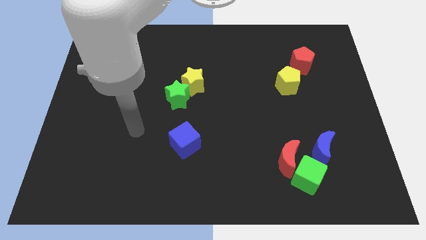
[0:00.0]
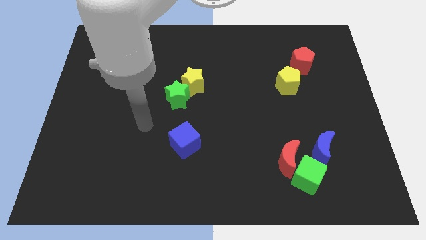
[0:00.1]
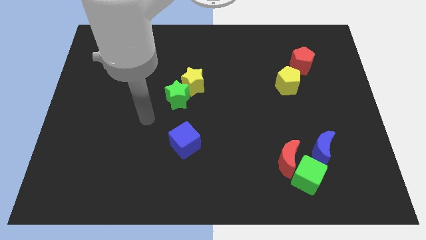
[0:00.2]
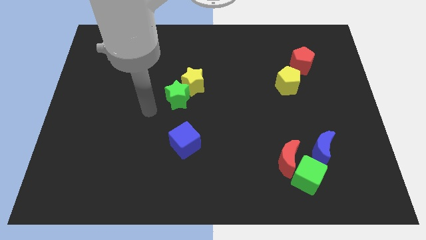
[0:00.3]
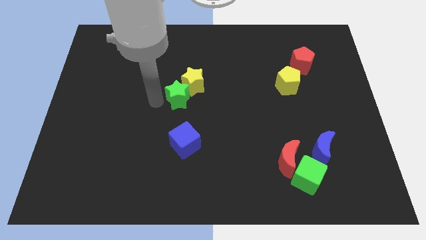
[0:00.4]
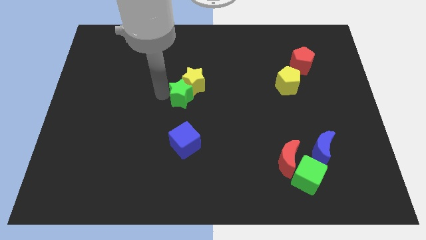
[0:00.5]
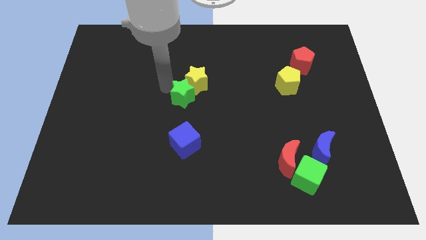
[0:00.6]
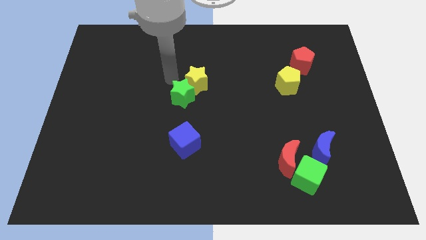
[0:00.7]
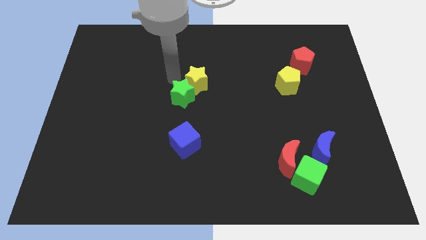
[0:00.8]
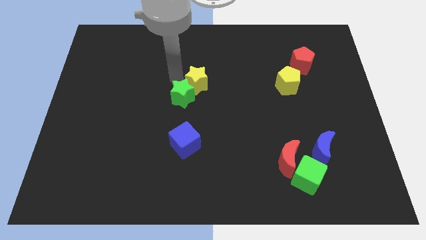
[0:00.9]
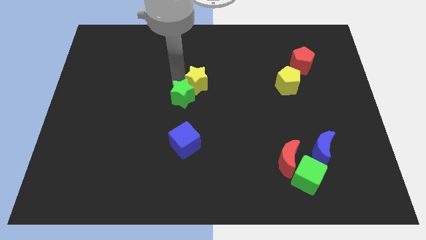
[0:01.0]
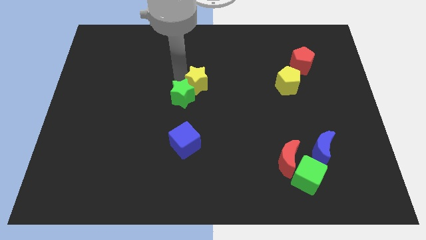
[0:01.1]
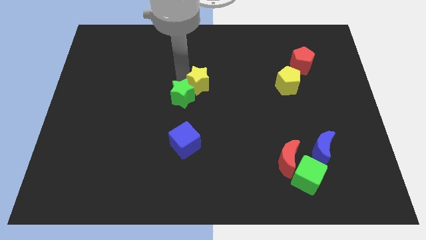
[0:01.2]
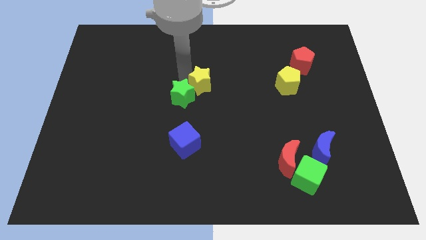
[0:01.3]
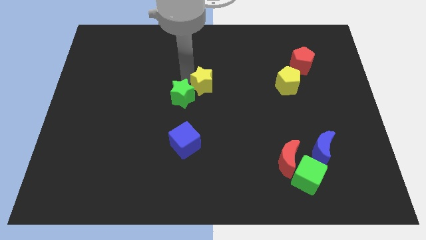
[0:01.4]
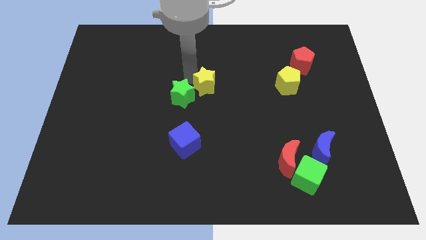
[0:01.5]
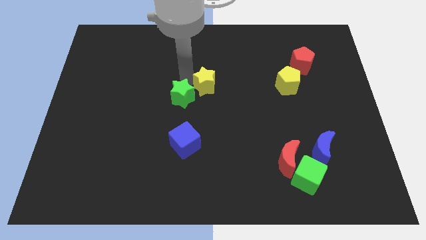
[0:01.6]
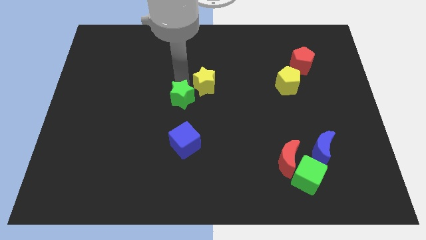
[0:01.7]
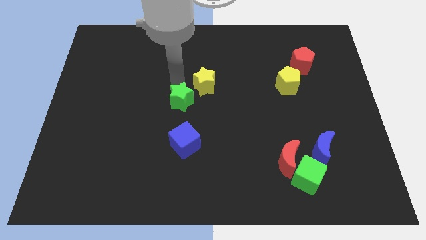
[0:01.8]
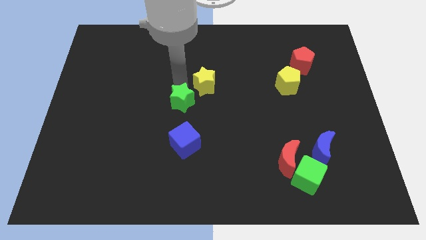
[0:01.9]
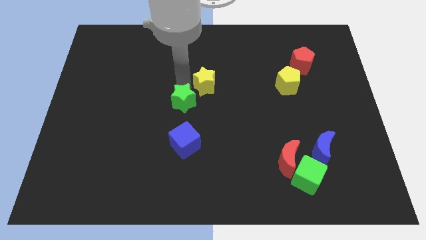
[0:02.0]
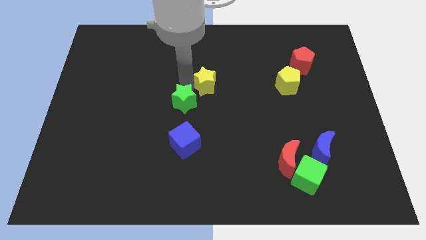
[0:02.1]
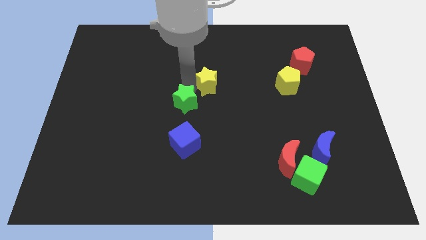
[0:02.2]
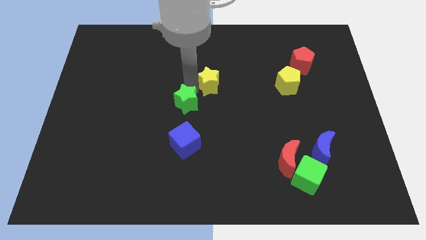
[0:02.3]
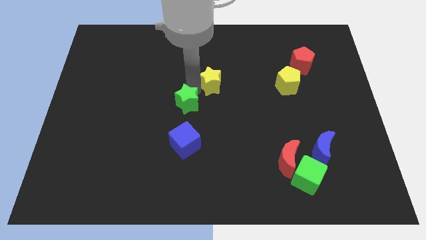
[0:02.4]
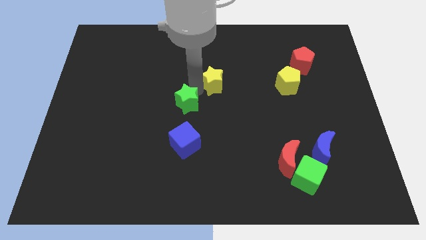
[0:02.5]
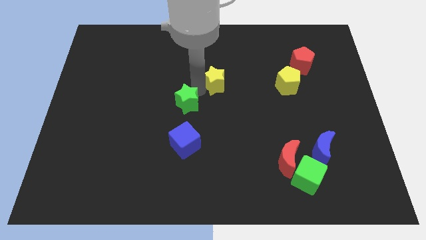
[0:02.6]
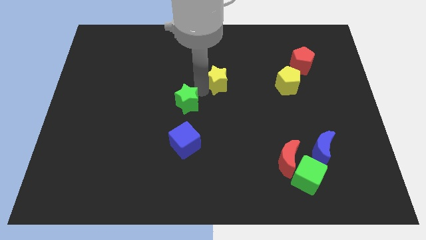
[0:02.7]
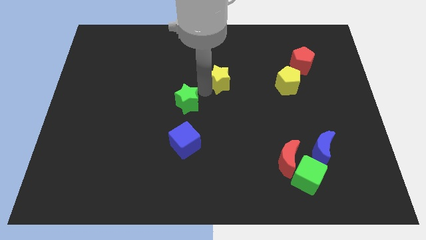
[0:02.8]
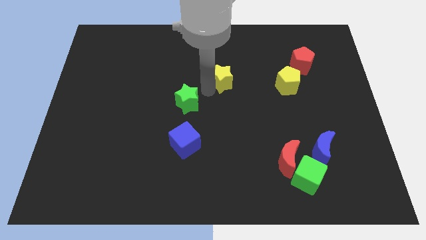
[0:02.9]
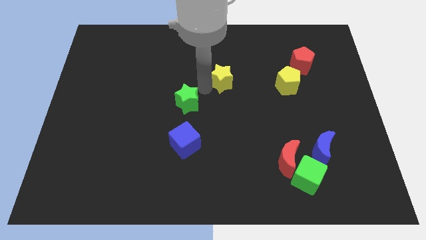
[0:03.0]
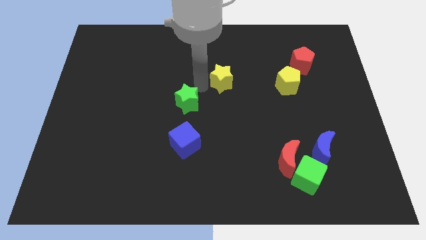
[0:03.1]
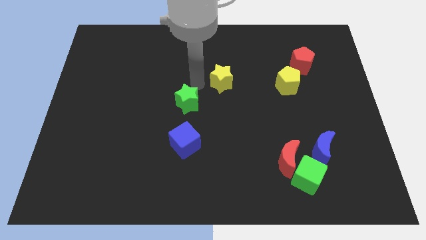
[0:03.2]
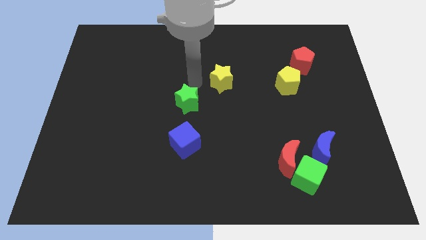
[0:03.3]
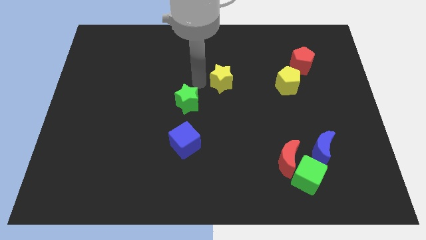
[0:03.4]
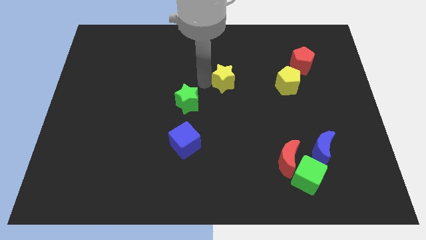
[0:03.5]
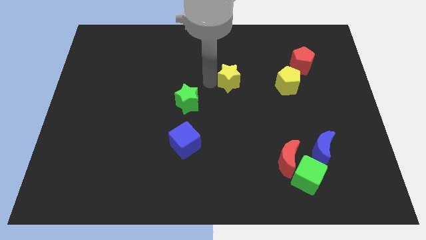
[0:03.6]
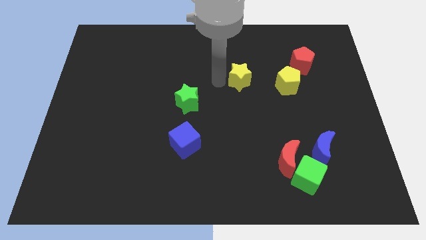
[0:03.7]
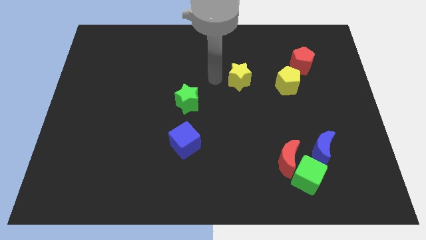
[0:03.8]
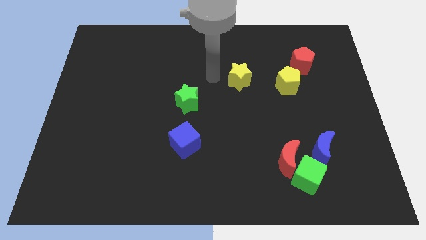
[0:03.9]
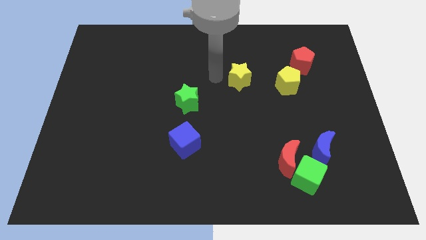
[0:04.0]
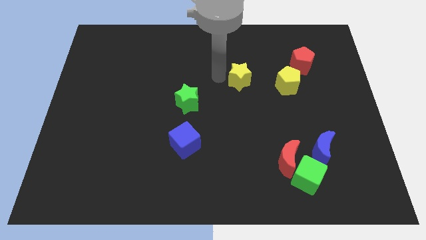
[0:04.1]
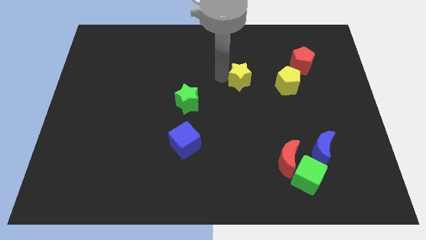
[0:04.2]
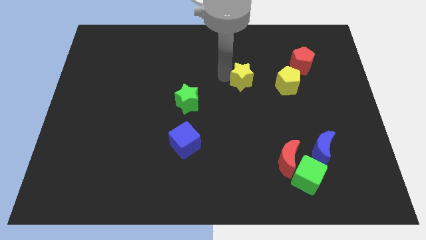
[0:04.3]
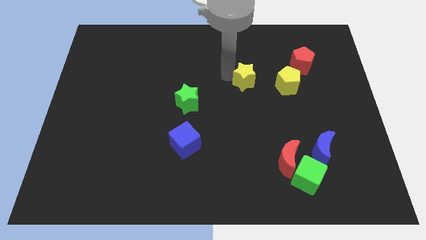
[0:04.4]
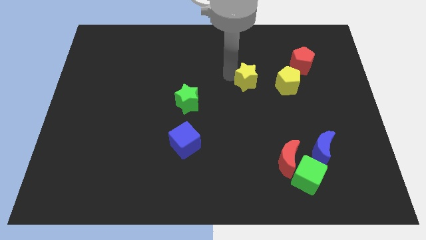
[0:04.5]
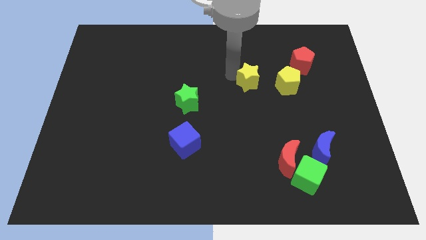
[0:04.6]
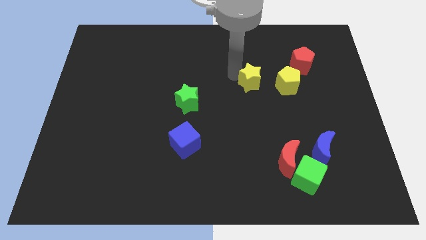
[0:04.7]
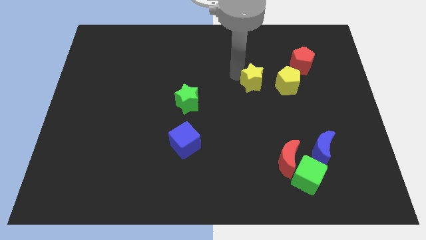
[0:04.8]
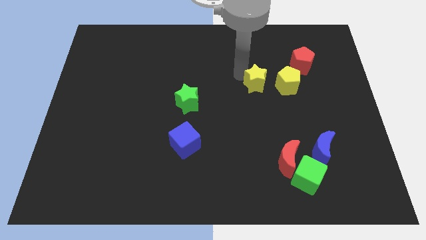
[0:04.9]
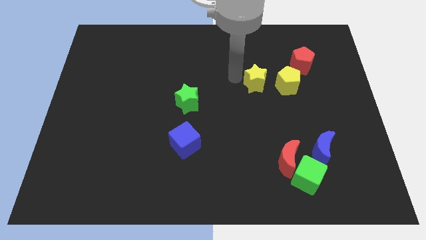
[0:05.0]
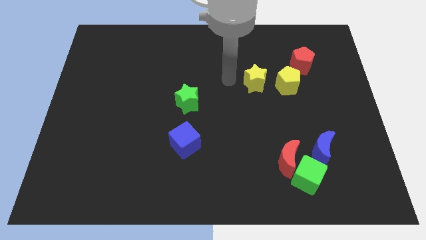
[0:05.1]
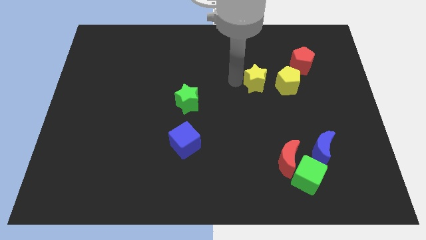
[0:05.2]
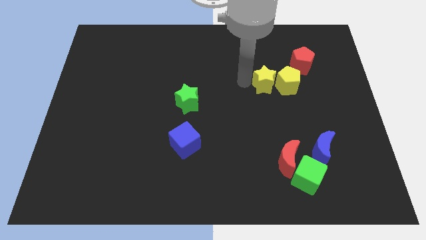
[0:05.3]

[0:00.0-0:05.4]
push the yellow star to the yellow pentagon

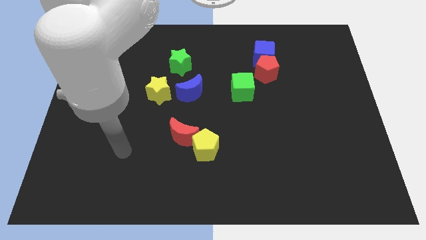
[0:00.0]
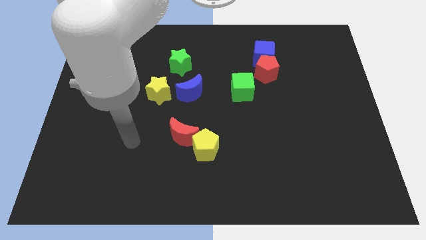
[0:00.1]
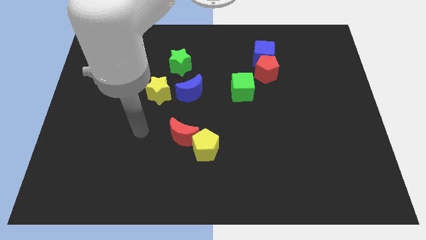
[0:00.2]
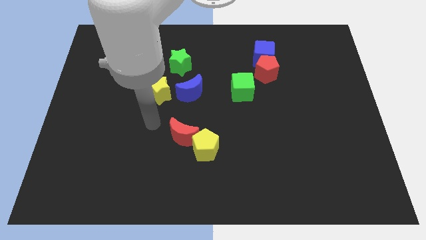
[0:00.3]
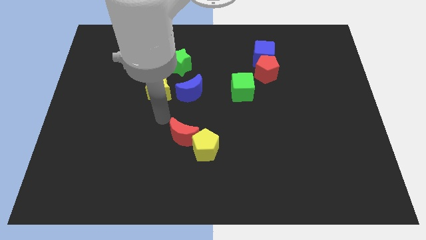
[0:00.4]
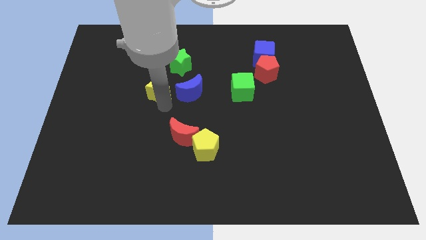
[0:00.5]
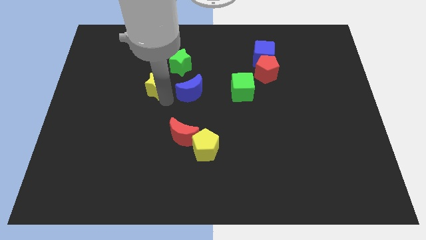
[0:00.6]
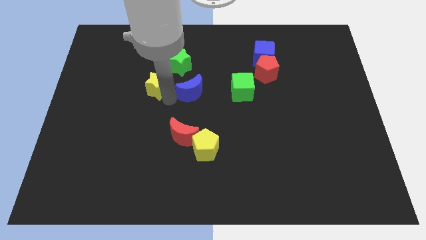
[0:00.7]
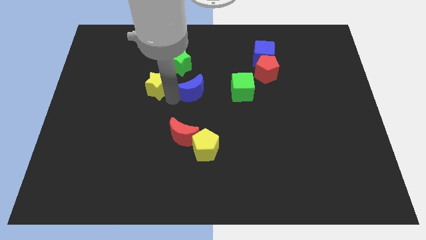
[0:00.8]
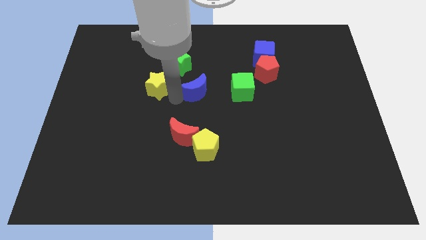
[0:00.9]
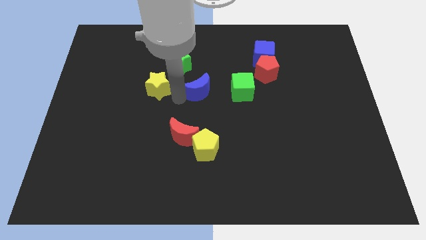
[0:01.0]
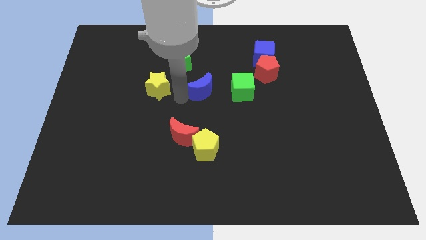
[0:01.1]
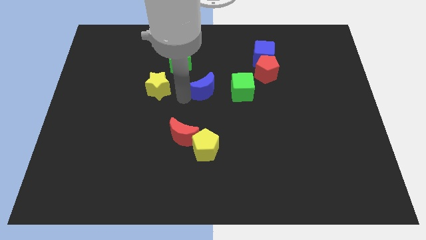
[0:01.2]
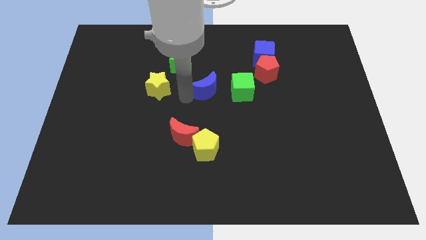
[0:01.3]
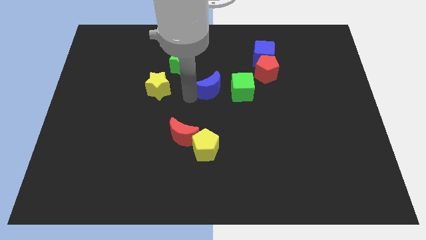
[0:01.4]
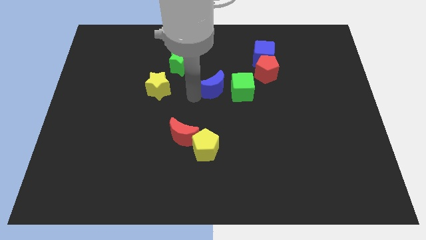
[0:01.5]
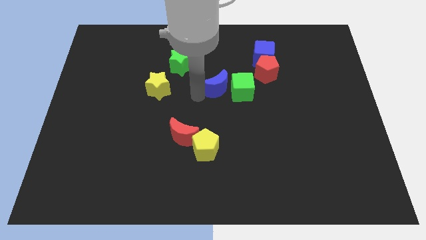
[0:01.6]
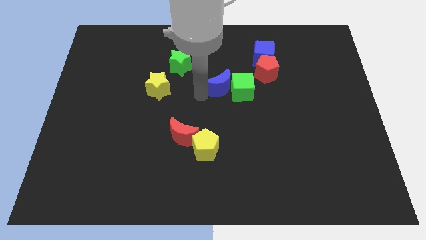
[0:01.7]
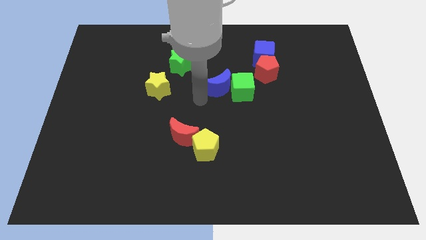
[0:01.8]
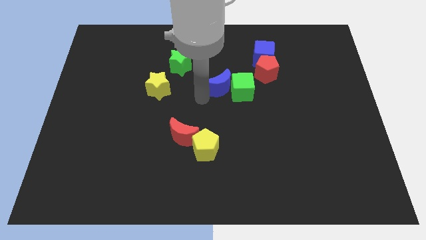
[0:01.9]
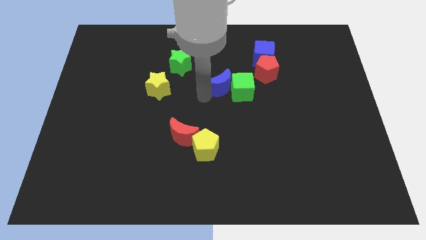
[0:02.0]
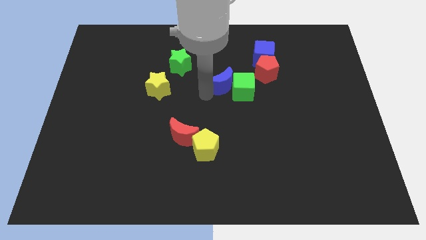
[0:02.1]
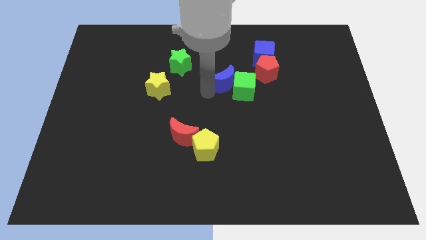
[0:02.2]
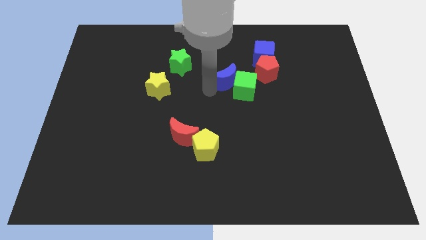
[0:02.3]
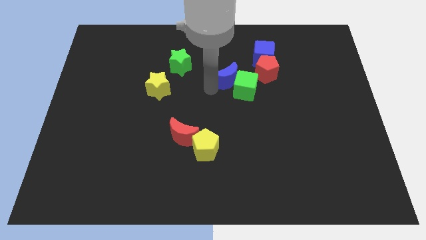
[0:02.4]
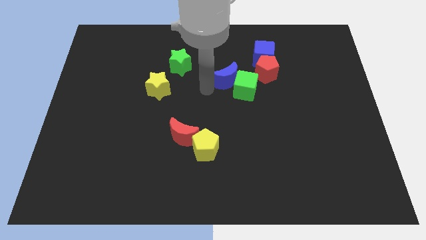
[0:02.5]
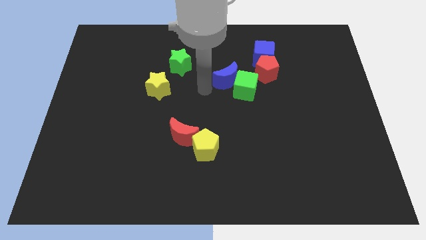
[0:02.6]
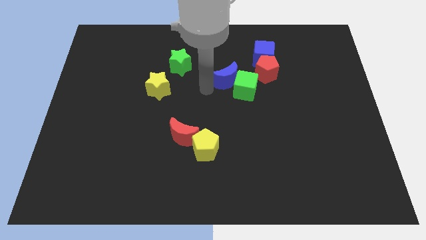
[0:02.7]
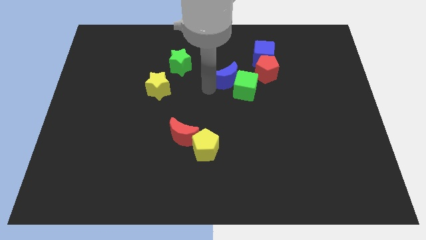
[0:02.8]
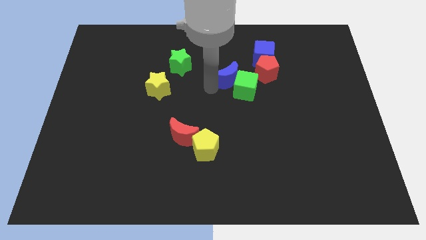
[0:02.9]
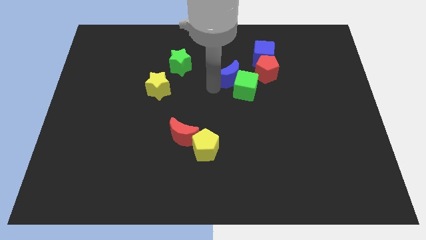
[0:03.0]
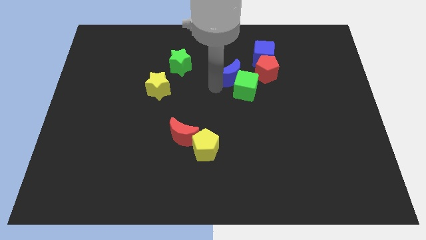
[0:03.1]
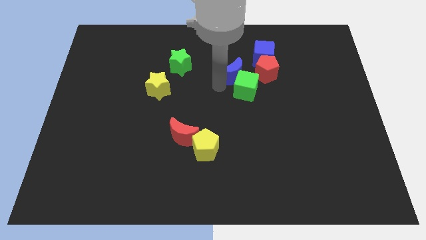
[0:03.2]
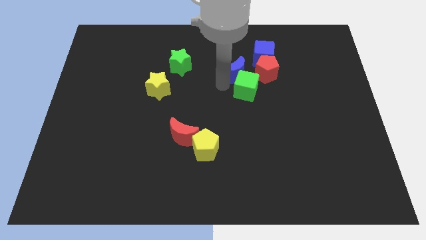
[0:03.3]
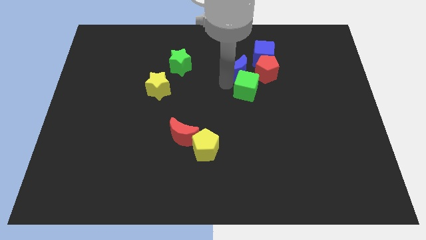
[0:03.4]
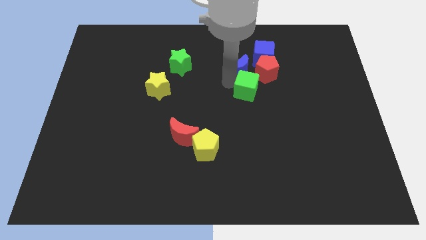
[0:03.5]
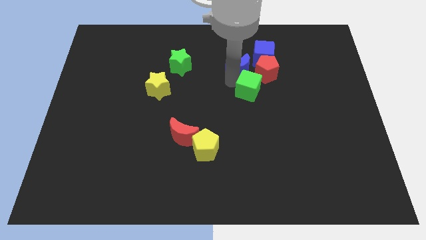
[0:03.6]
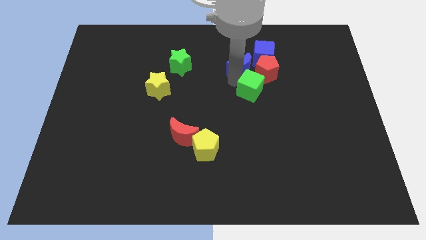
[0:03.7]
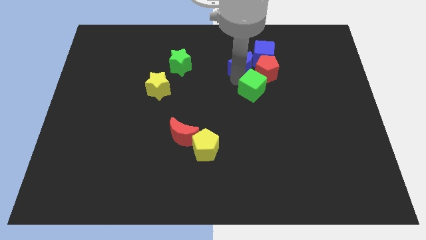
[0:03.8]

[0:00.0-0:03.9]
push the blue moon to the red pentagon
